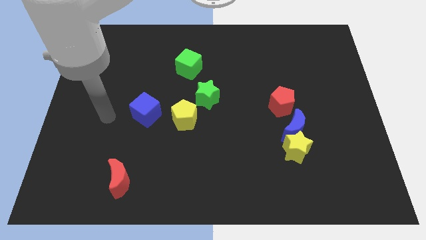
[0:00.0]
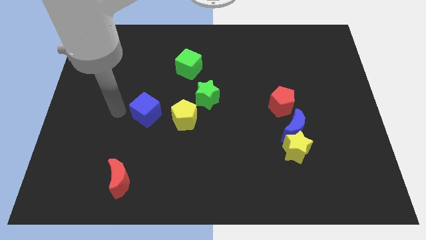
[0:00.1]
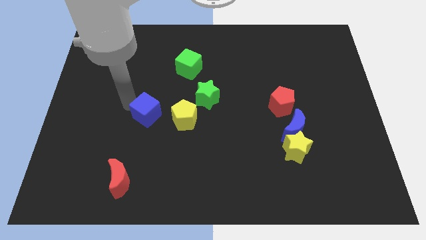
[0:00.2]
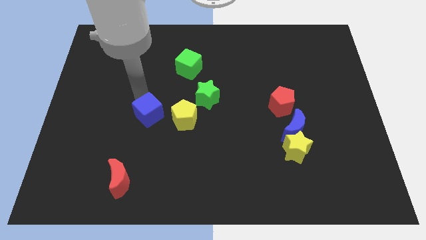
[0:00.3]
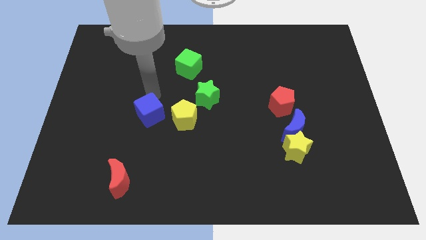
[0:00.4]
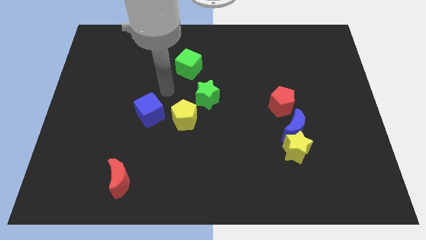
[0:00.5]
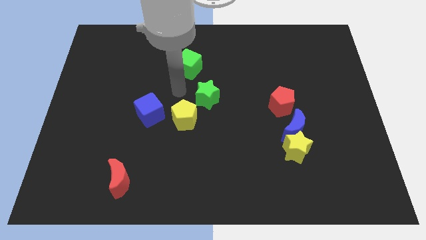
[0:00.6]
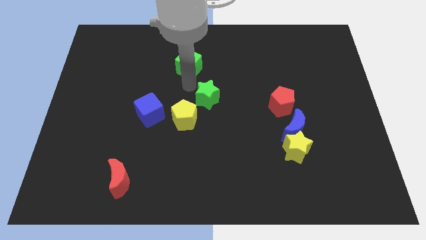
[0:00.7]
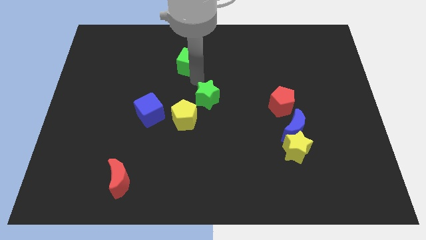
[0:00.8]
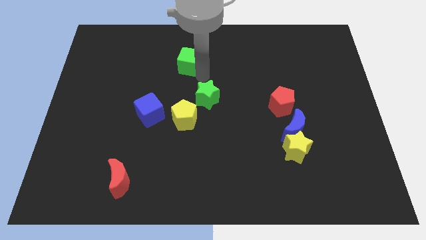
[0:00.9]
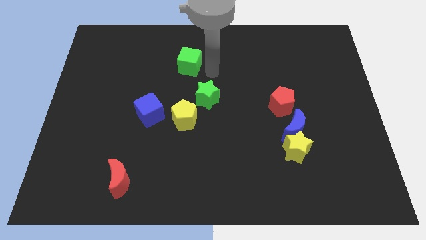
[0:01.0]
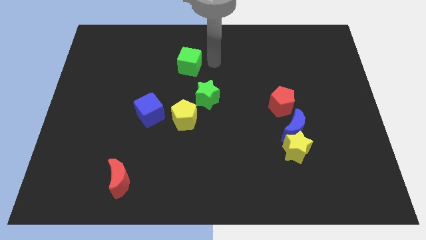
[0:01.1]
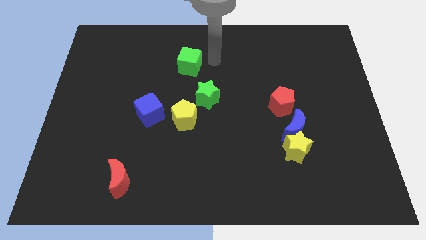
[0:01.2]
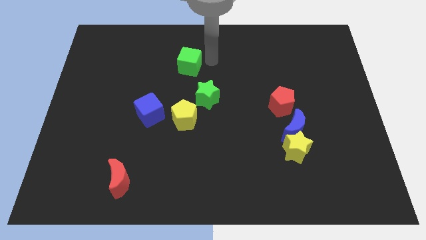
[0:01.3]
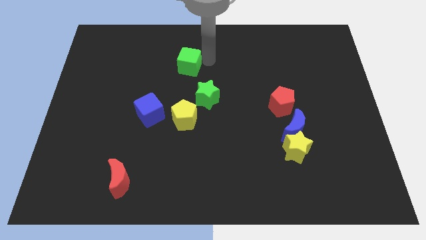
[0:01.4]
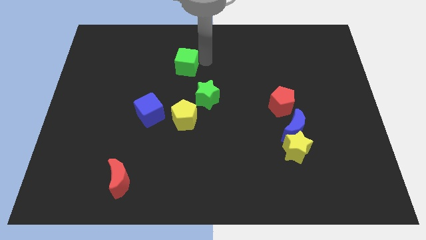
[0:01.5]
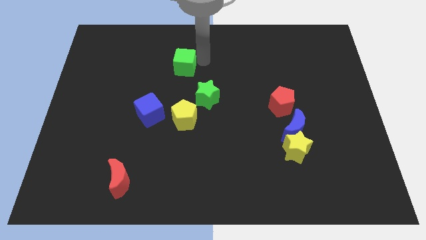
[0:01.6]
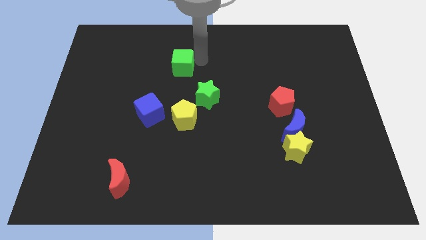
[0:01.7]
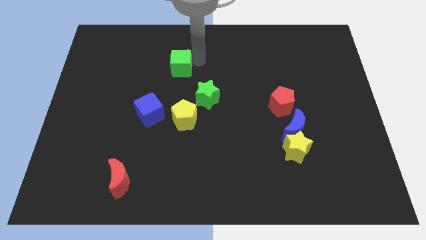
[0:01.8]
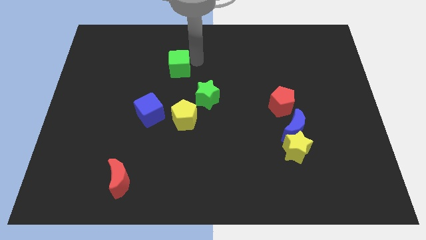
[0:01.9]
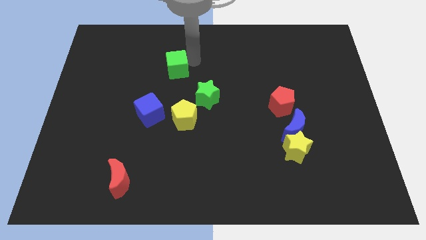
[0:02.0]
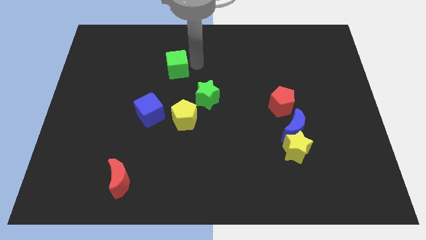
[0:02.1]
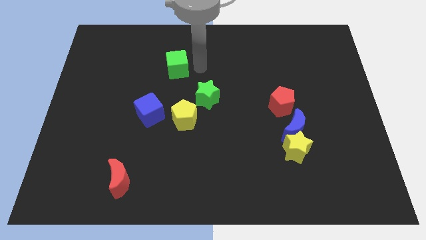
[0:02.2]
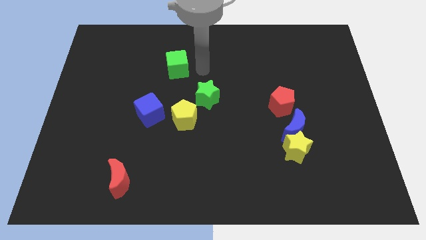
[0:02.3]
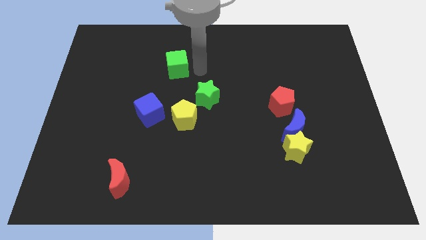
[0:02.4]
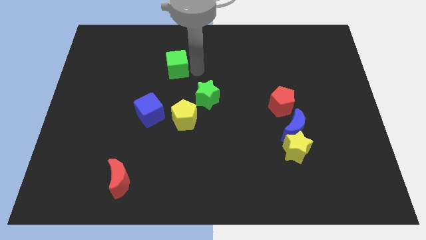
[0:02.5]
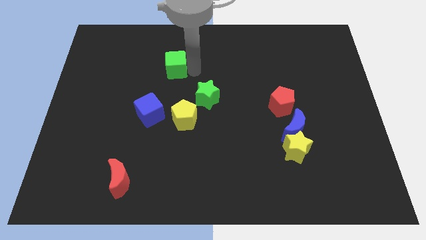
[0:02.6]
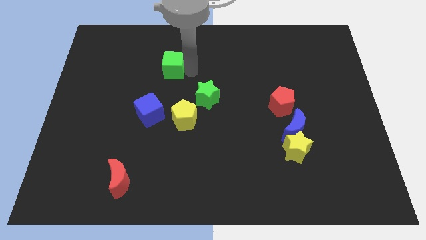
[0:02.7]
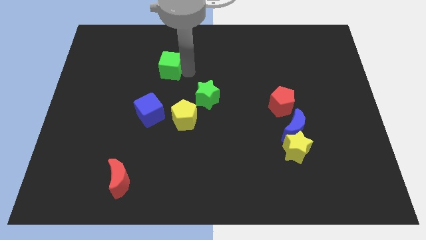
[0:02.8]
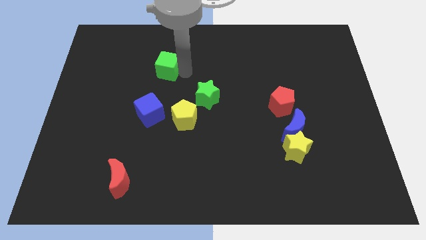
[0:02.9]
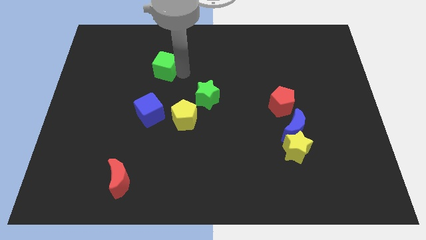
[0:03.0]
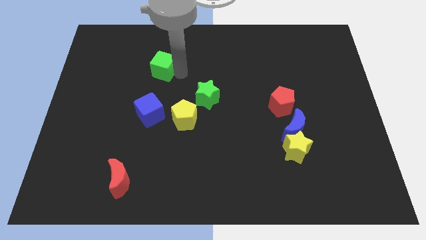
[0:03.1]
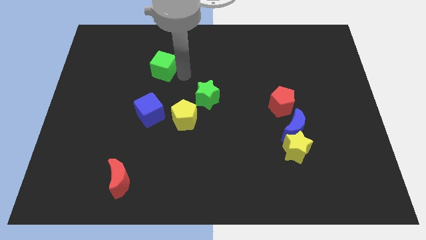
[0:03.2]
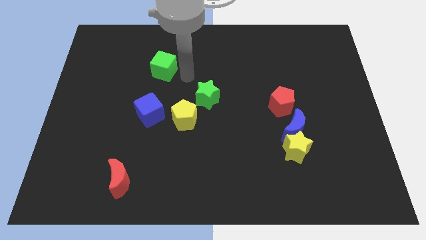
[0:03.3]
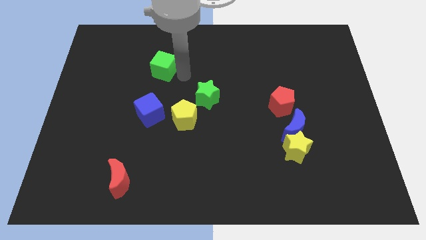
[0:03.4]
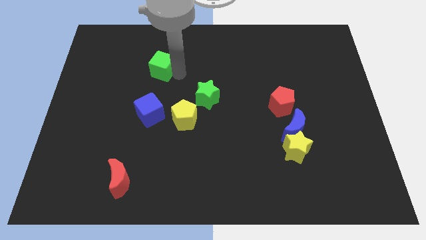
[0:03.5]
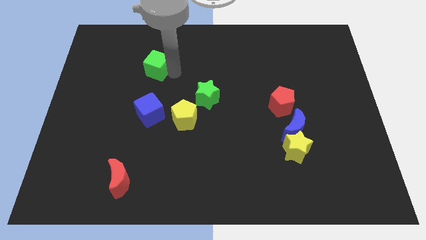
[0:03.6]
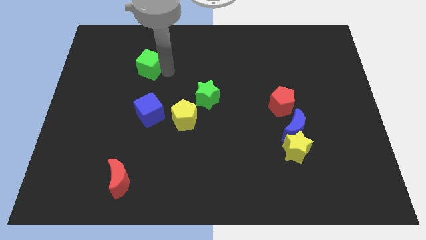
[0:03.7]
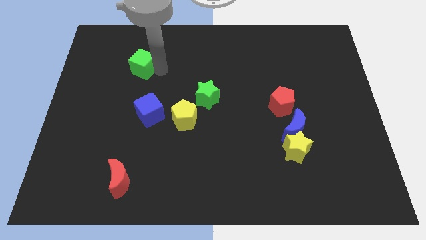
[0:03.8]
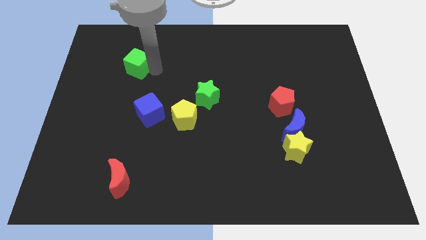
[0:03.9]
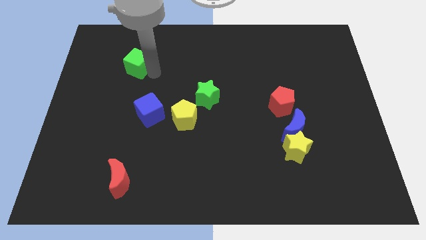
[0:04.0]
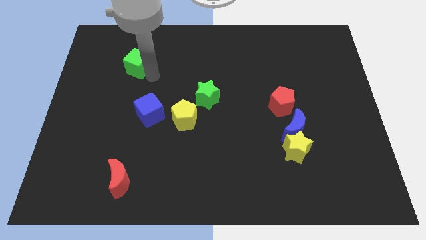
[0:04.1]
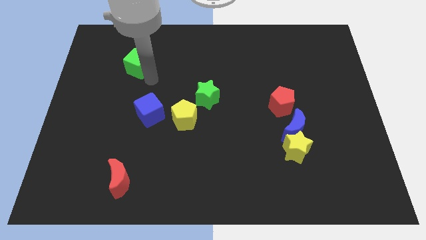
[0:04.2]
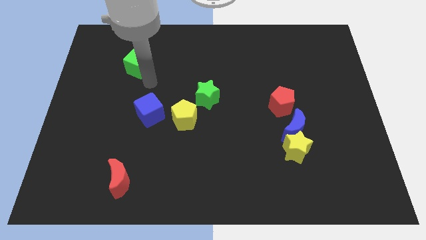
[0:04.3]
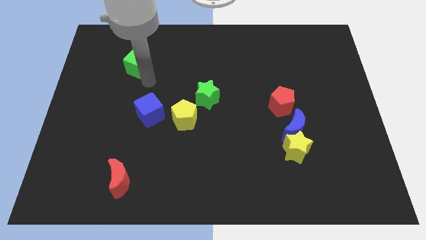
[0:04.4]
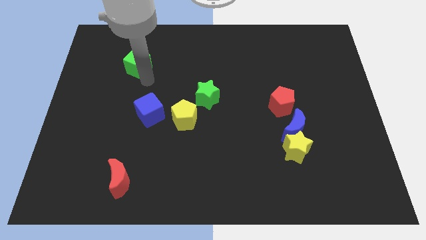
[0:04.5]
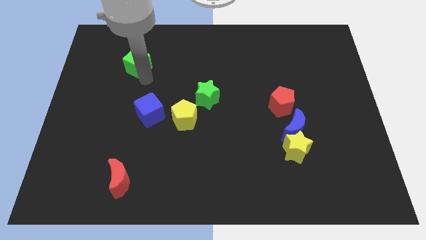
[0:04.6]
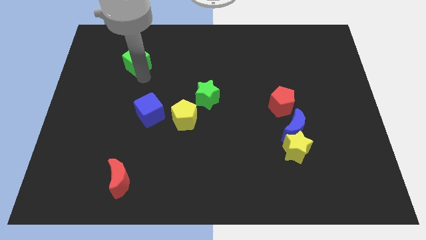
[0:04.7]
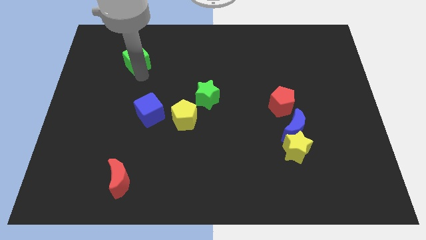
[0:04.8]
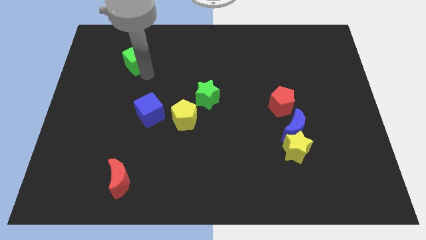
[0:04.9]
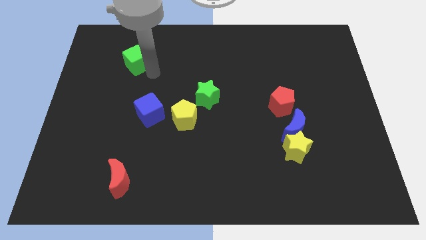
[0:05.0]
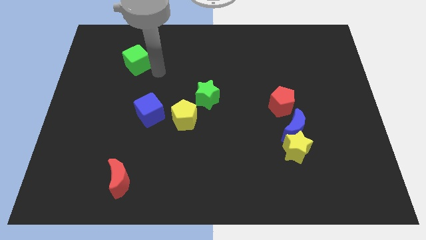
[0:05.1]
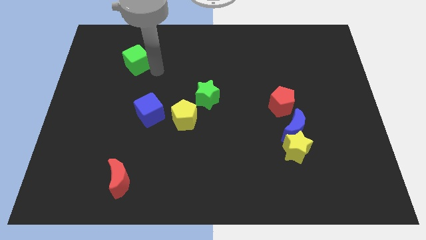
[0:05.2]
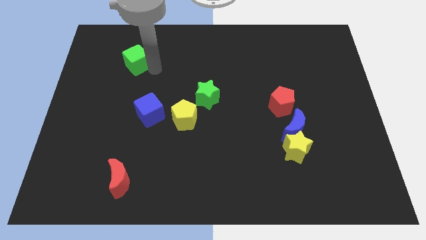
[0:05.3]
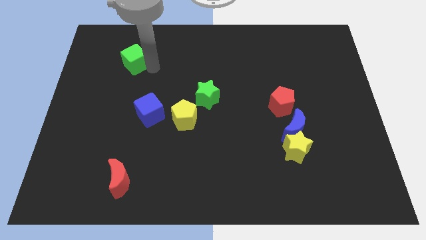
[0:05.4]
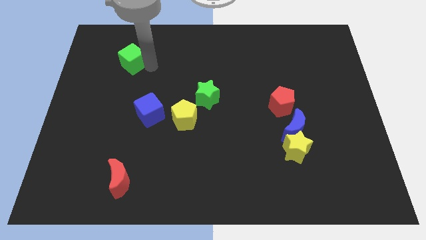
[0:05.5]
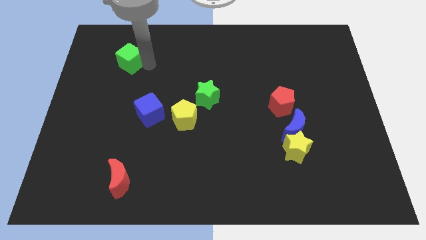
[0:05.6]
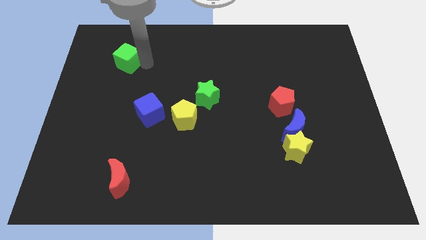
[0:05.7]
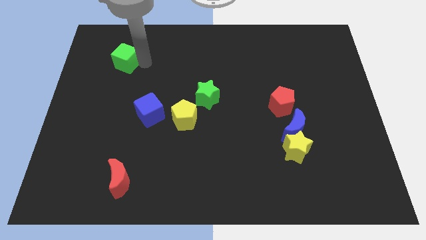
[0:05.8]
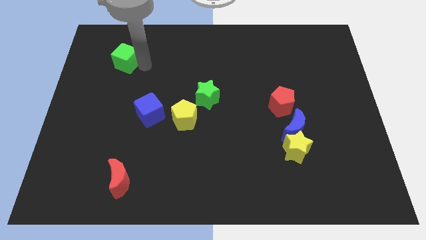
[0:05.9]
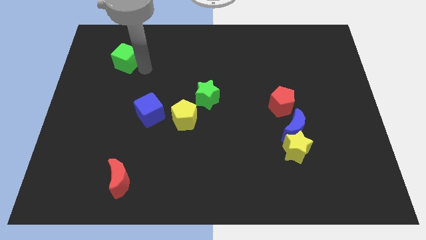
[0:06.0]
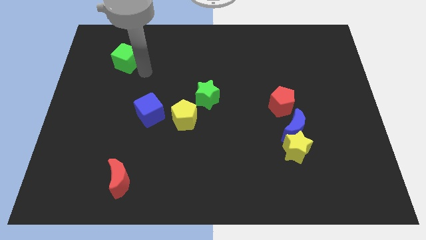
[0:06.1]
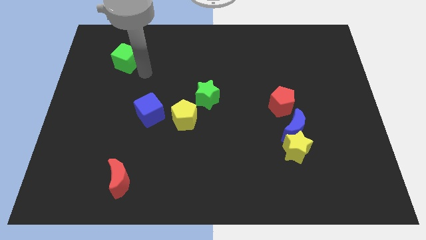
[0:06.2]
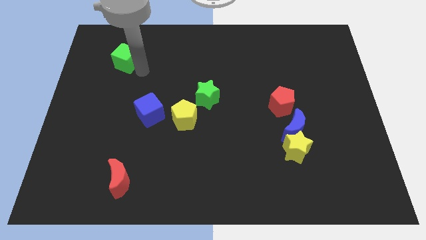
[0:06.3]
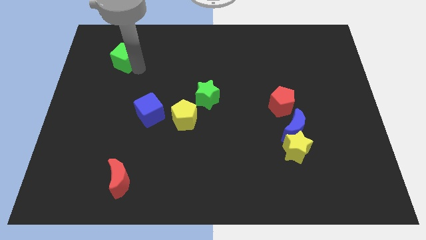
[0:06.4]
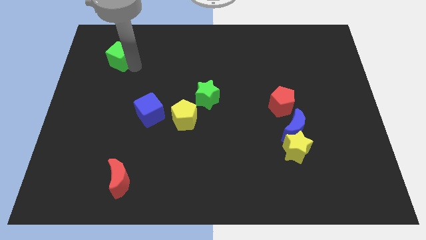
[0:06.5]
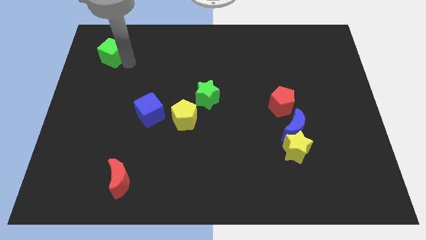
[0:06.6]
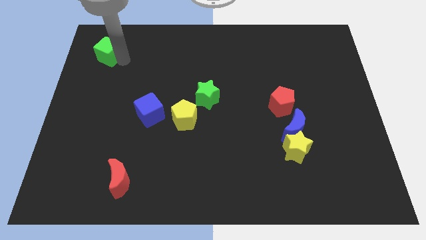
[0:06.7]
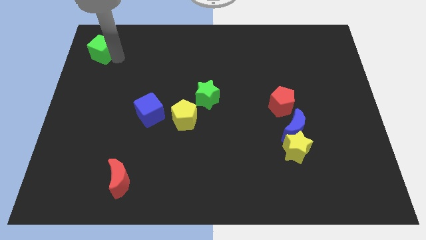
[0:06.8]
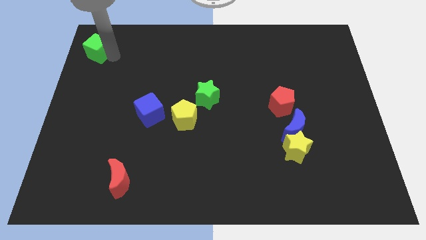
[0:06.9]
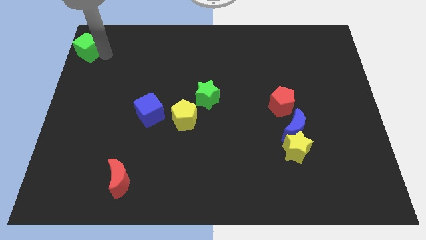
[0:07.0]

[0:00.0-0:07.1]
push the green cube to the top left

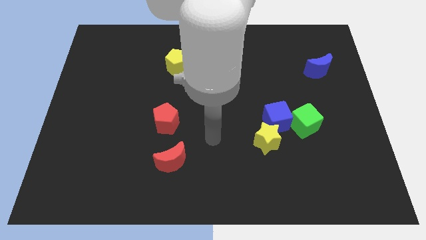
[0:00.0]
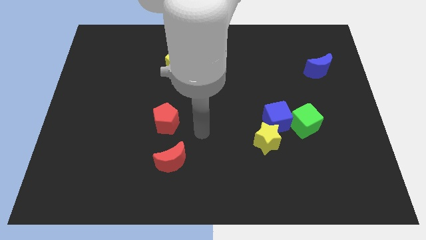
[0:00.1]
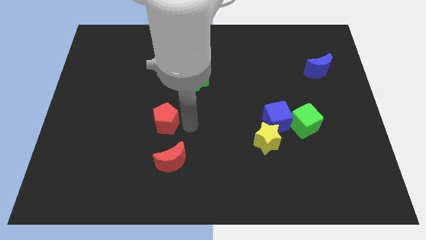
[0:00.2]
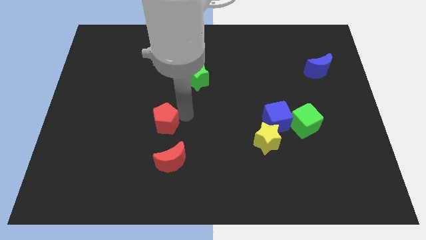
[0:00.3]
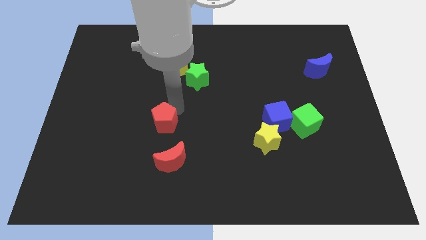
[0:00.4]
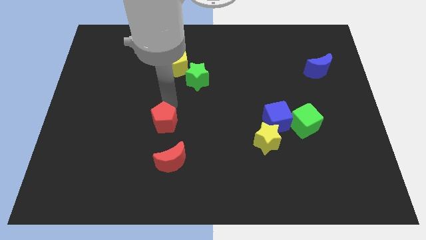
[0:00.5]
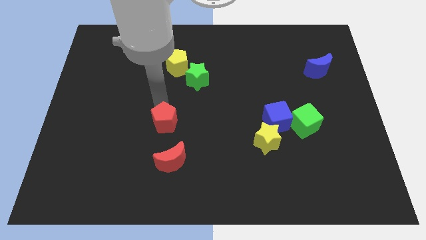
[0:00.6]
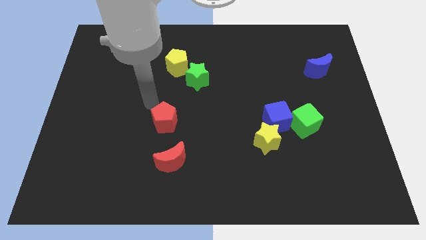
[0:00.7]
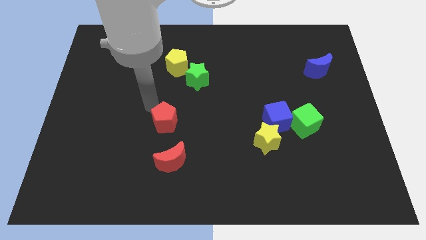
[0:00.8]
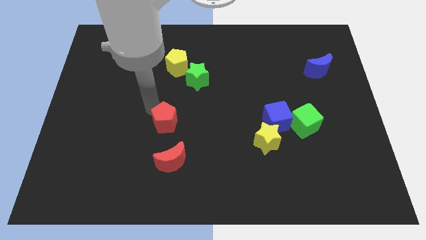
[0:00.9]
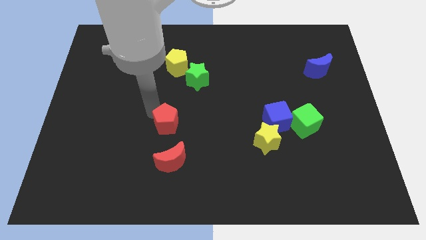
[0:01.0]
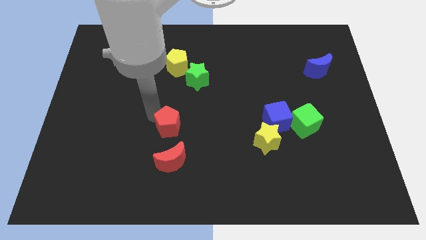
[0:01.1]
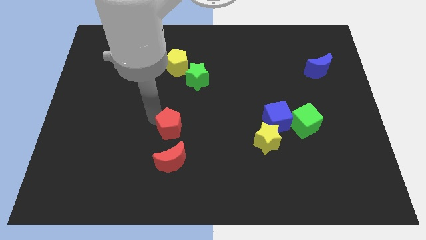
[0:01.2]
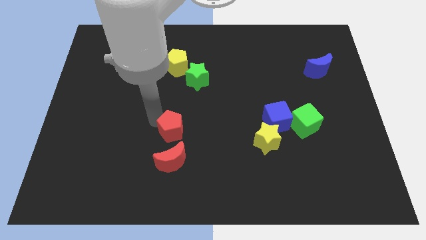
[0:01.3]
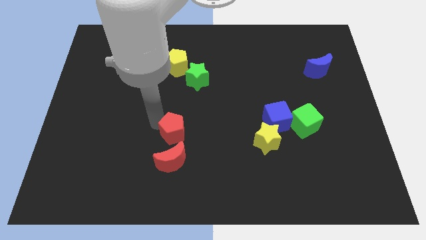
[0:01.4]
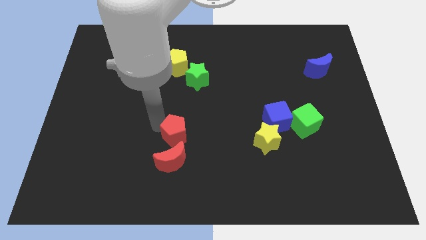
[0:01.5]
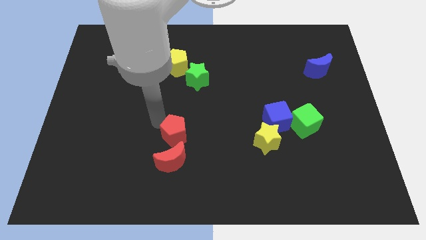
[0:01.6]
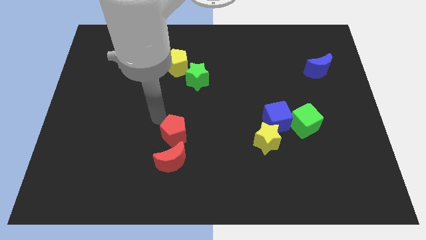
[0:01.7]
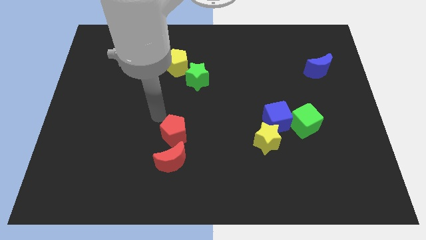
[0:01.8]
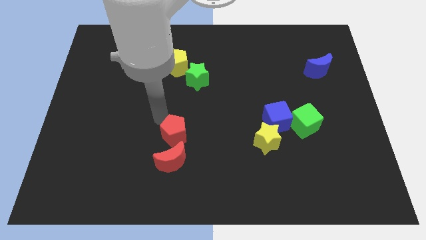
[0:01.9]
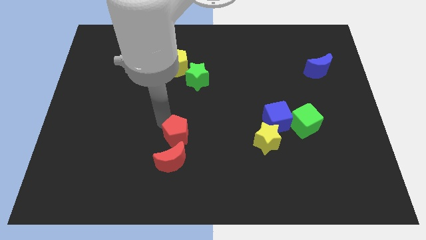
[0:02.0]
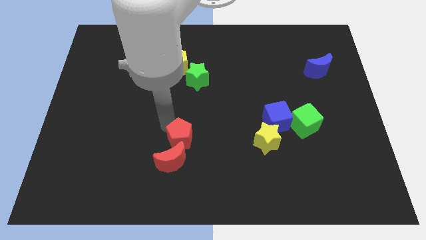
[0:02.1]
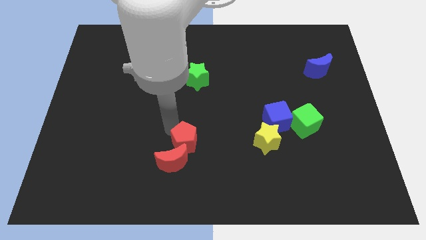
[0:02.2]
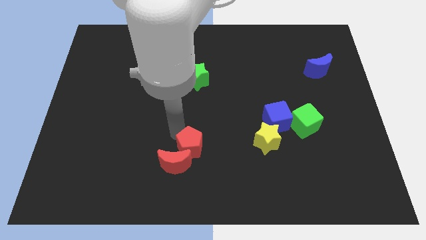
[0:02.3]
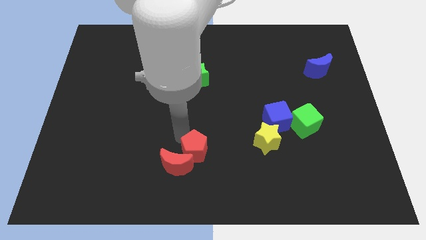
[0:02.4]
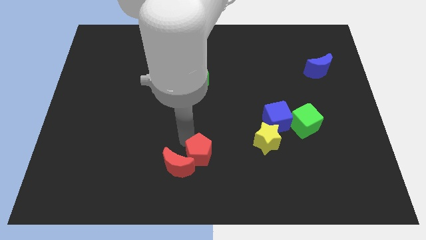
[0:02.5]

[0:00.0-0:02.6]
slide the red pentagon to the bottom
